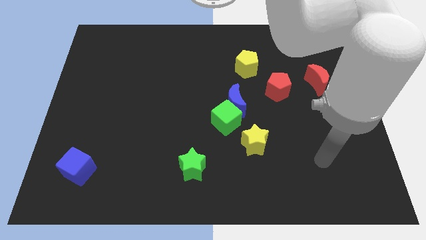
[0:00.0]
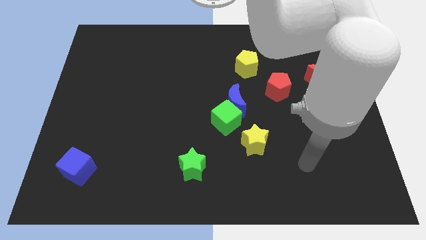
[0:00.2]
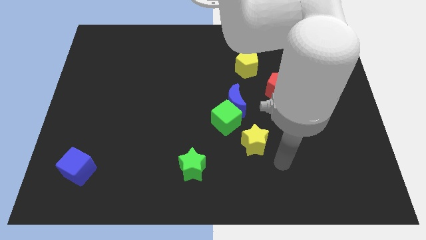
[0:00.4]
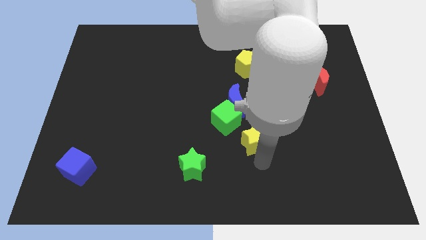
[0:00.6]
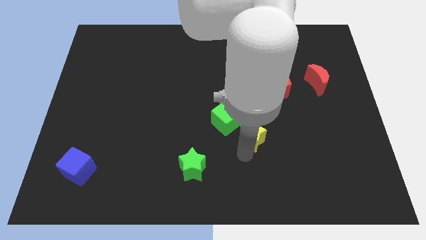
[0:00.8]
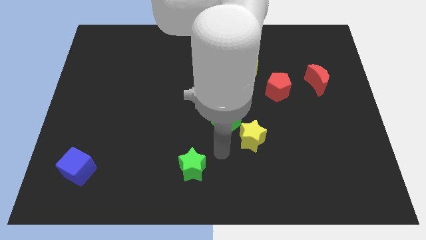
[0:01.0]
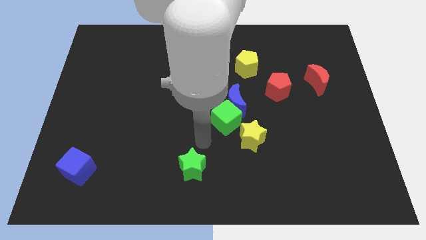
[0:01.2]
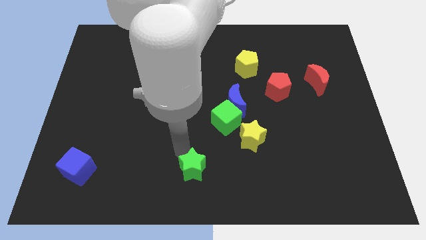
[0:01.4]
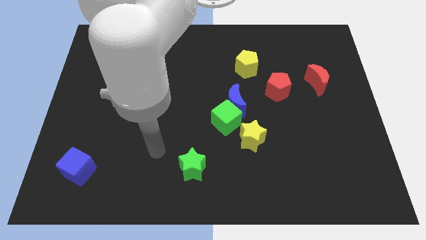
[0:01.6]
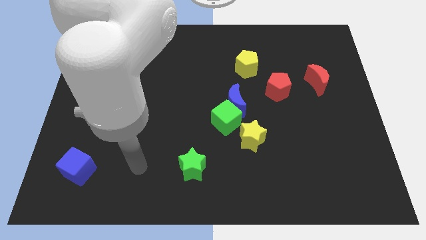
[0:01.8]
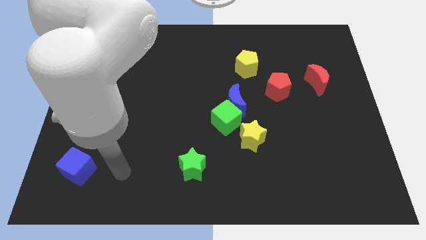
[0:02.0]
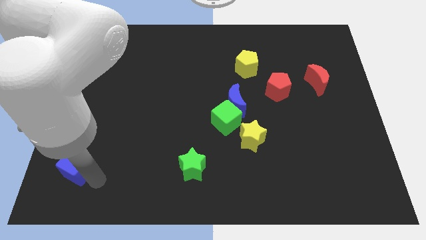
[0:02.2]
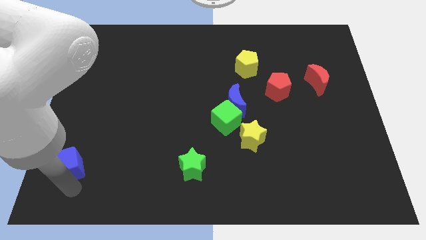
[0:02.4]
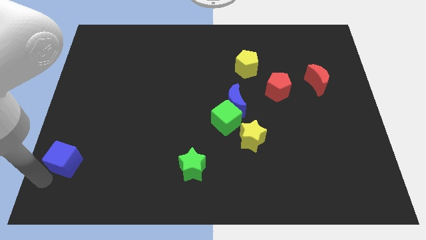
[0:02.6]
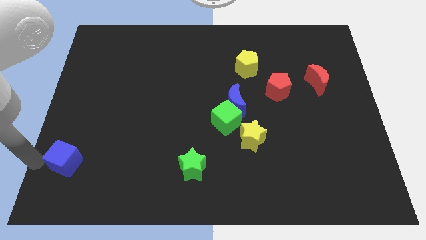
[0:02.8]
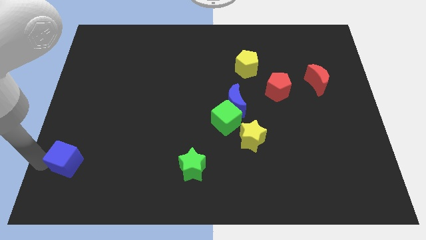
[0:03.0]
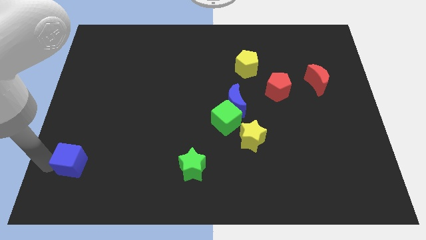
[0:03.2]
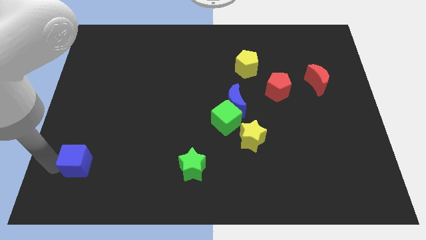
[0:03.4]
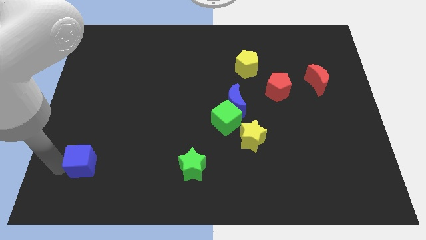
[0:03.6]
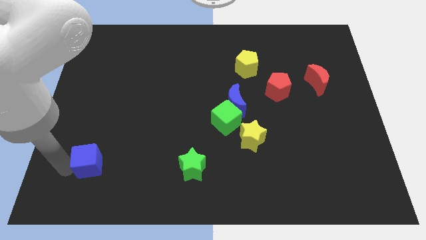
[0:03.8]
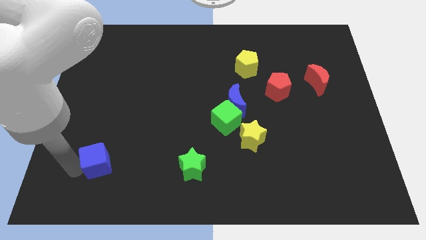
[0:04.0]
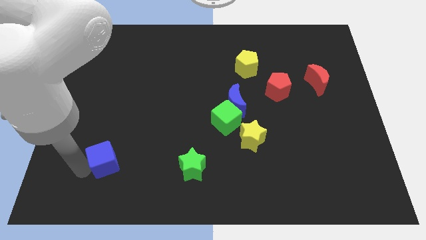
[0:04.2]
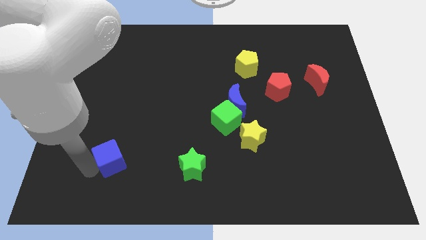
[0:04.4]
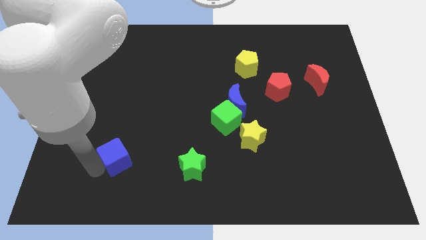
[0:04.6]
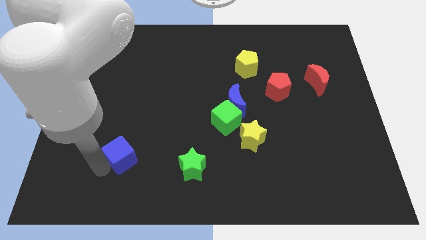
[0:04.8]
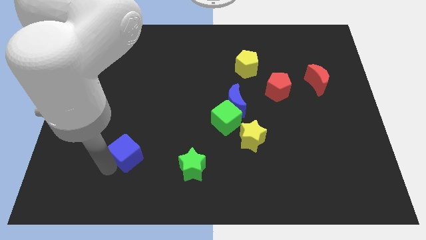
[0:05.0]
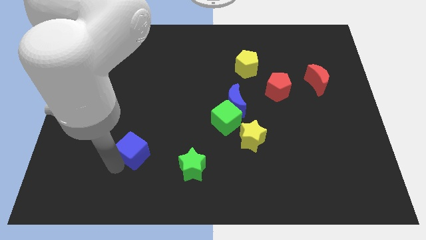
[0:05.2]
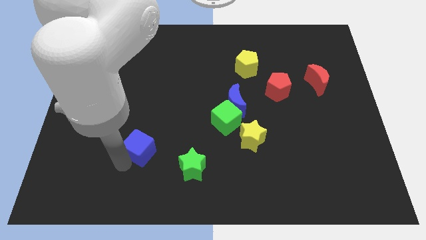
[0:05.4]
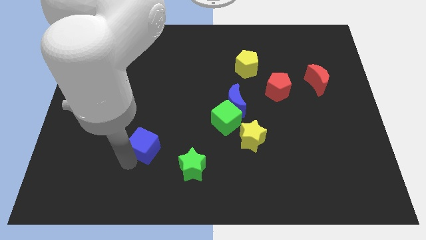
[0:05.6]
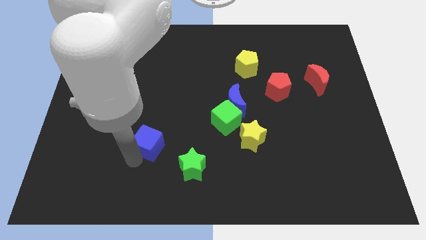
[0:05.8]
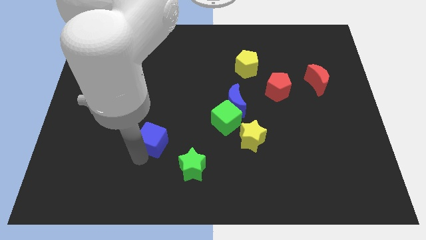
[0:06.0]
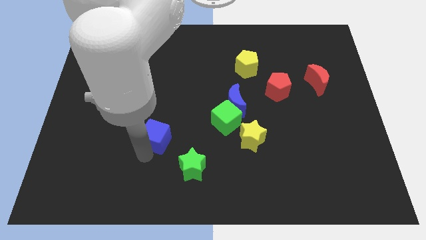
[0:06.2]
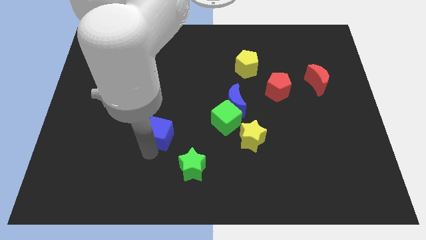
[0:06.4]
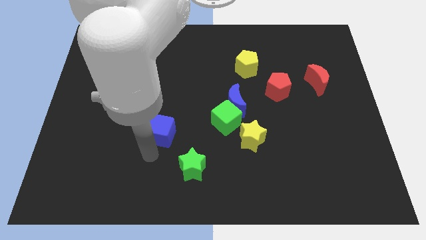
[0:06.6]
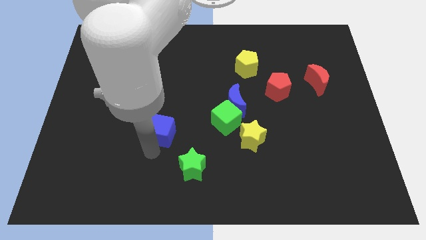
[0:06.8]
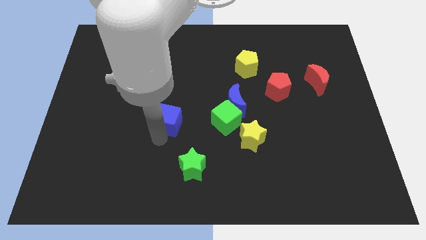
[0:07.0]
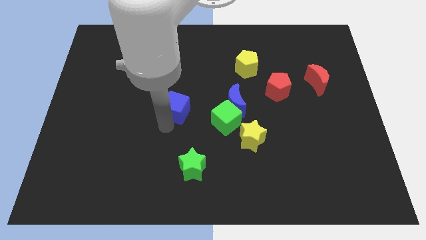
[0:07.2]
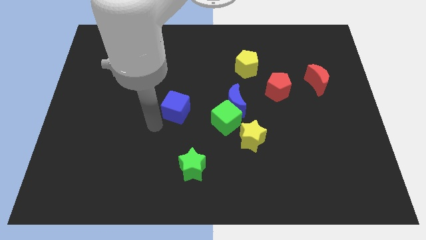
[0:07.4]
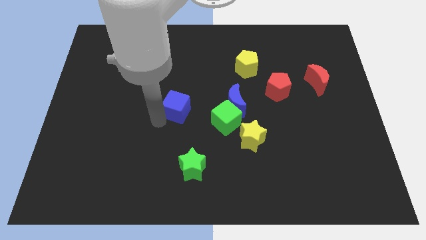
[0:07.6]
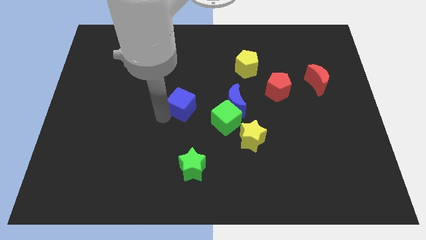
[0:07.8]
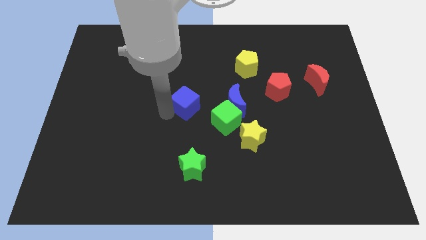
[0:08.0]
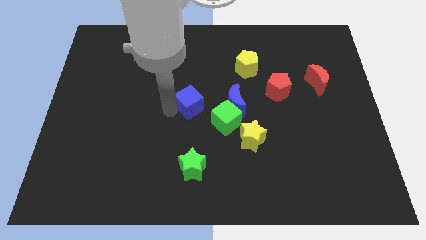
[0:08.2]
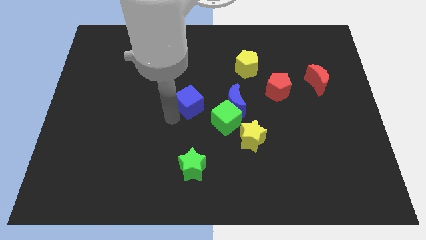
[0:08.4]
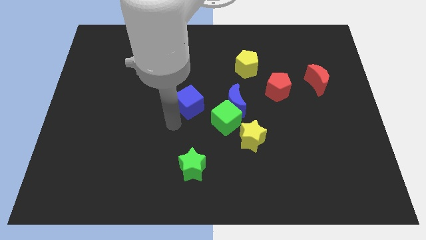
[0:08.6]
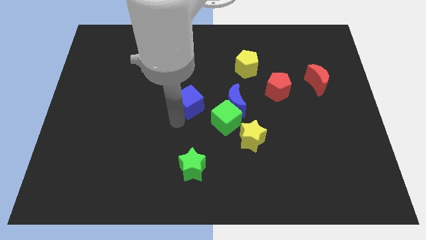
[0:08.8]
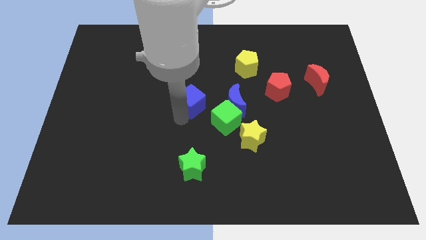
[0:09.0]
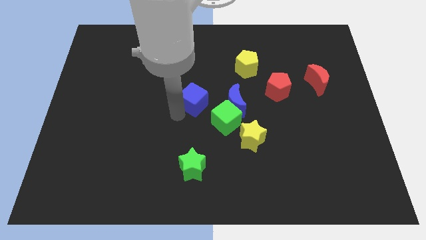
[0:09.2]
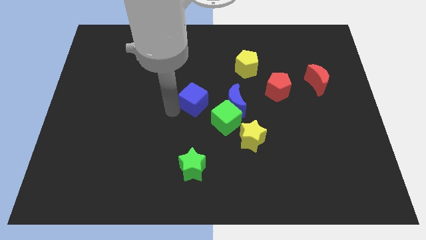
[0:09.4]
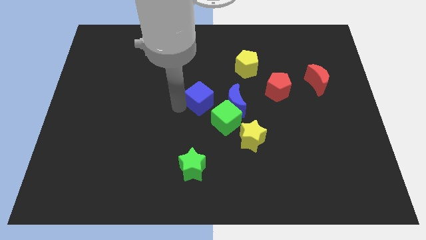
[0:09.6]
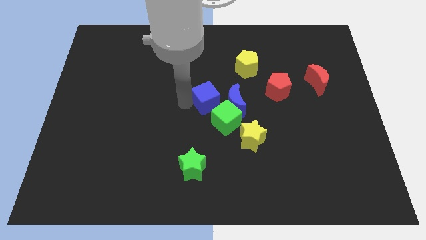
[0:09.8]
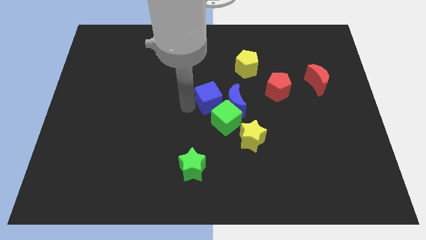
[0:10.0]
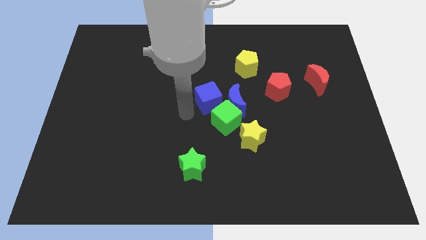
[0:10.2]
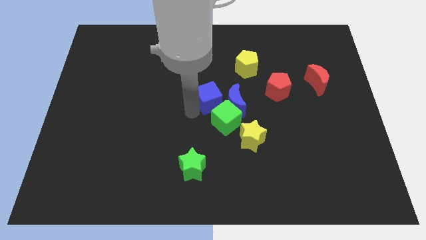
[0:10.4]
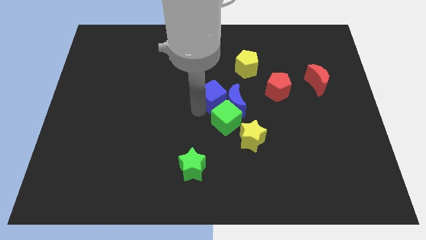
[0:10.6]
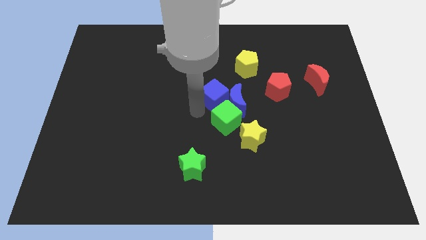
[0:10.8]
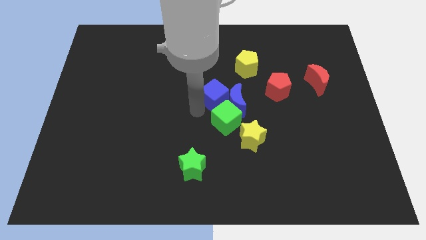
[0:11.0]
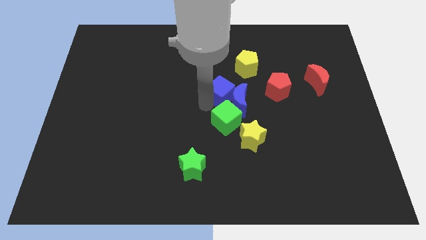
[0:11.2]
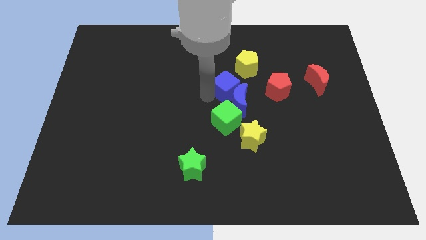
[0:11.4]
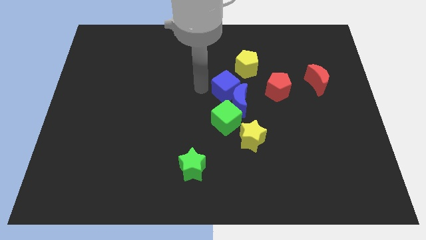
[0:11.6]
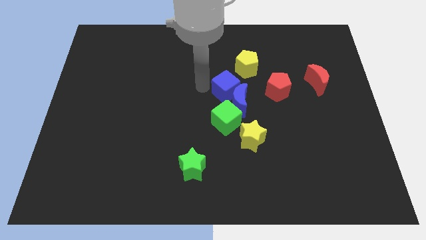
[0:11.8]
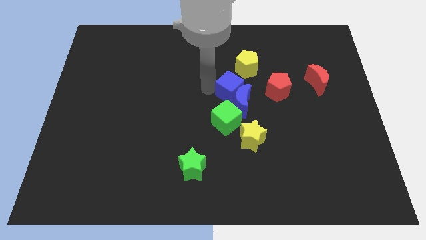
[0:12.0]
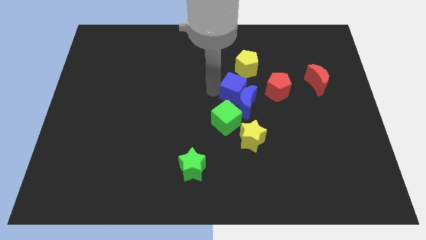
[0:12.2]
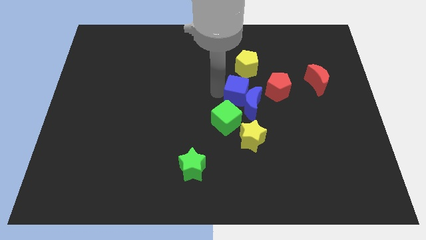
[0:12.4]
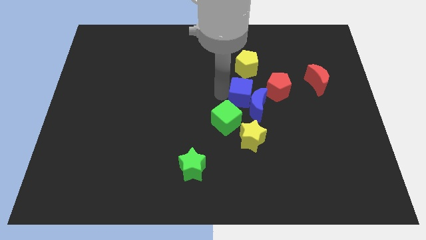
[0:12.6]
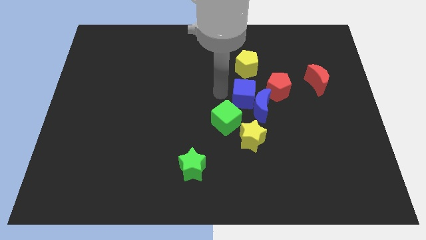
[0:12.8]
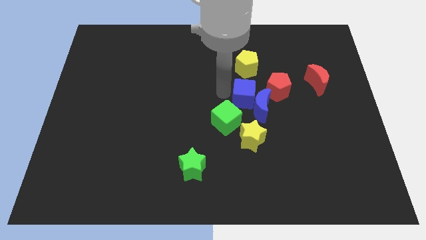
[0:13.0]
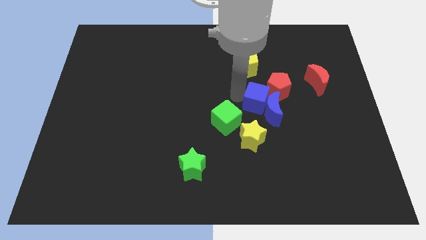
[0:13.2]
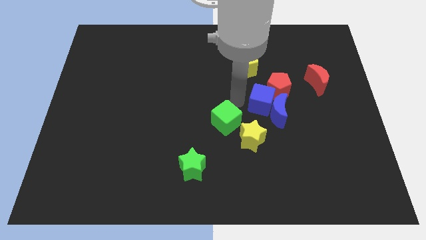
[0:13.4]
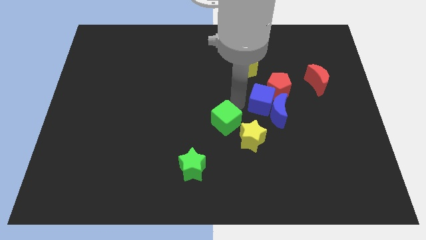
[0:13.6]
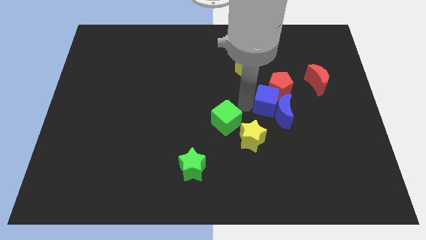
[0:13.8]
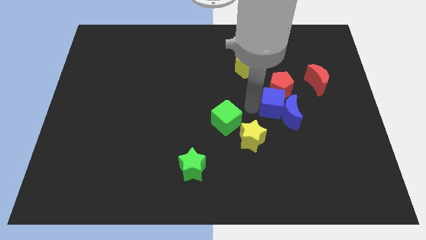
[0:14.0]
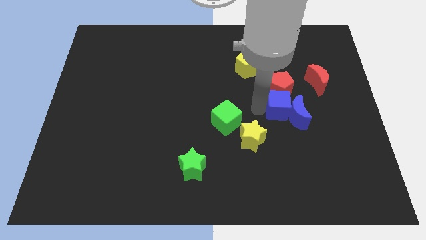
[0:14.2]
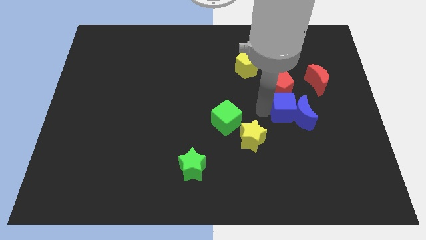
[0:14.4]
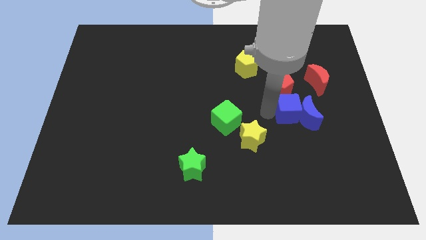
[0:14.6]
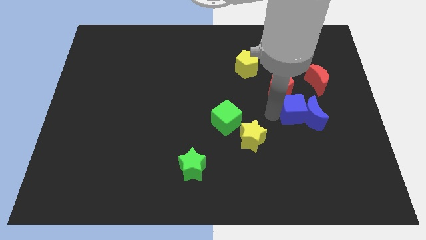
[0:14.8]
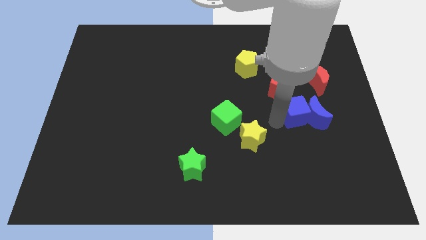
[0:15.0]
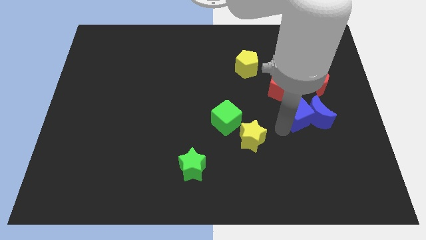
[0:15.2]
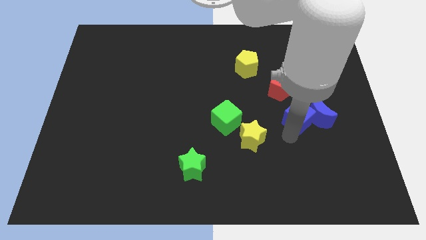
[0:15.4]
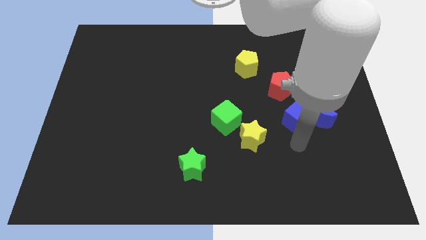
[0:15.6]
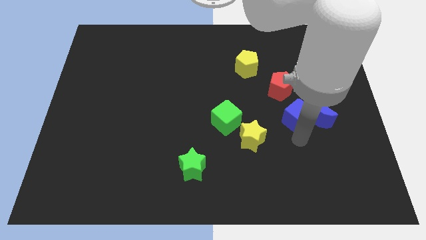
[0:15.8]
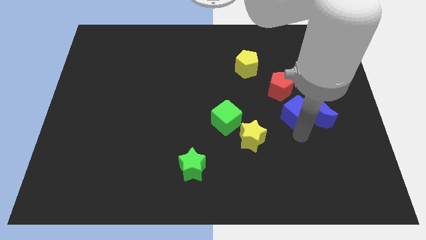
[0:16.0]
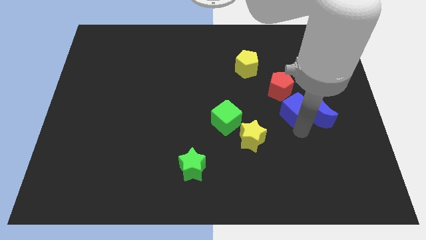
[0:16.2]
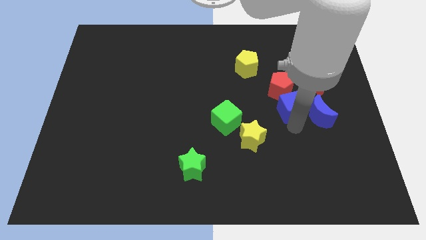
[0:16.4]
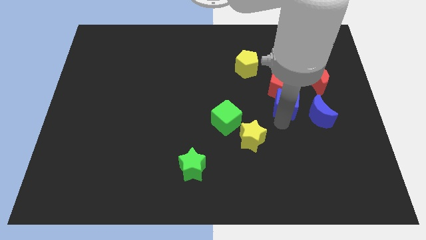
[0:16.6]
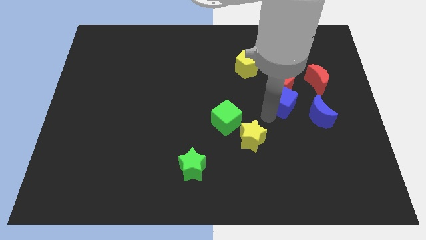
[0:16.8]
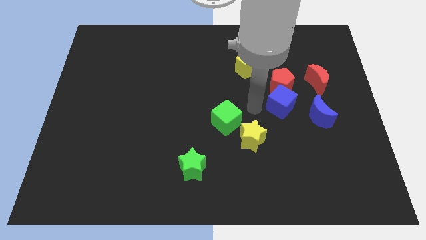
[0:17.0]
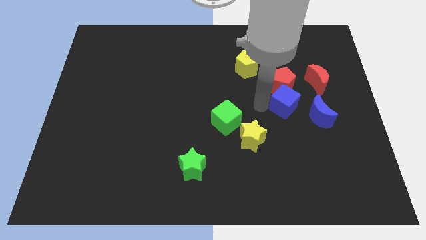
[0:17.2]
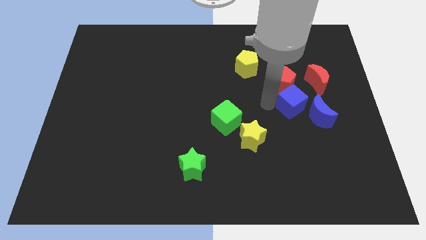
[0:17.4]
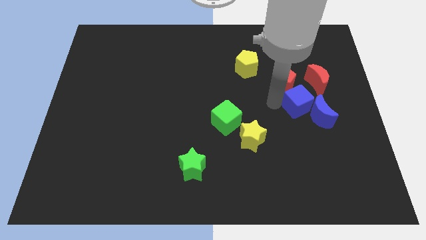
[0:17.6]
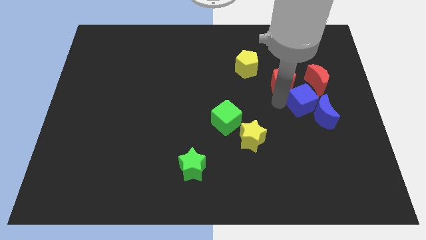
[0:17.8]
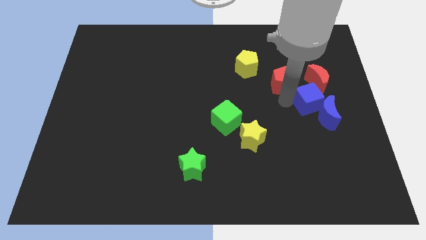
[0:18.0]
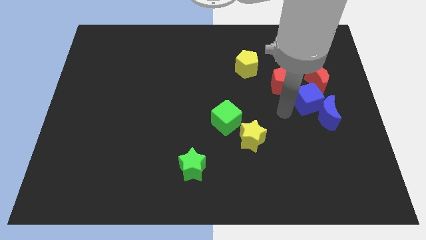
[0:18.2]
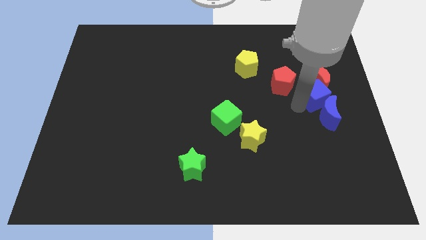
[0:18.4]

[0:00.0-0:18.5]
put the blue cube just right of the red pentagon
